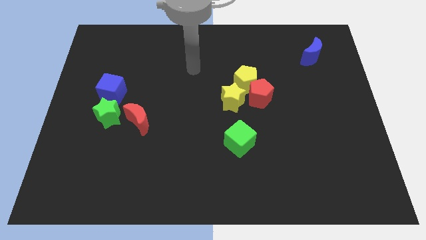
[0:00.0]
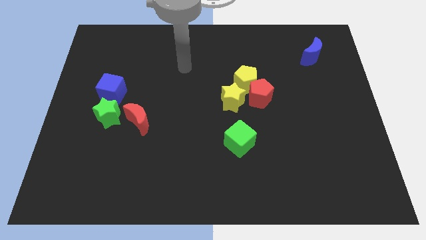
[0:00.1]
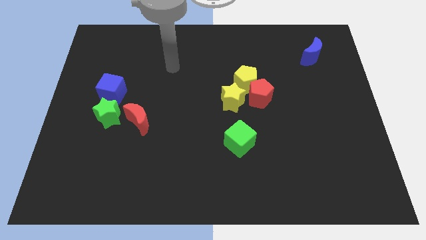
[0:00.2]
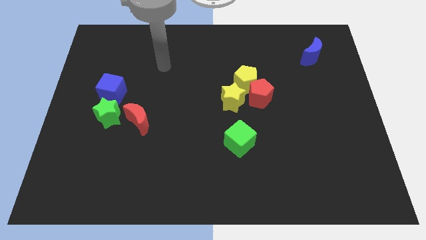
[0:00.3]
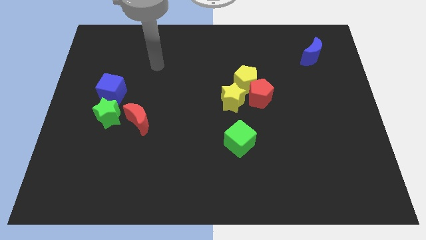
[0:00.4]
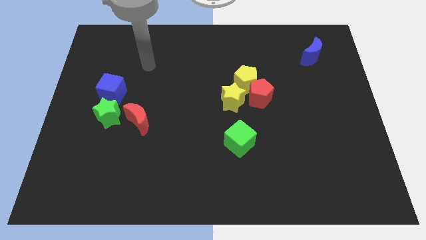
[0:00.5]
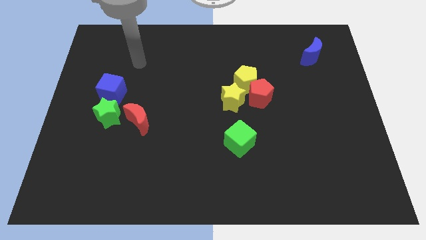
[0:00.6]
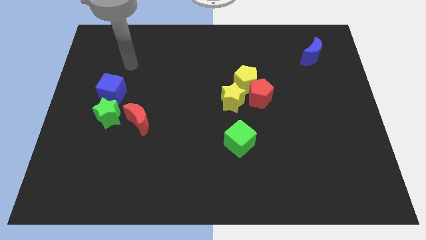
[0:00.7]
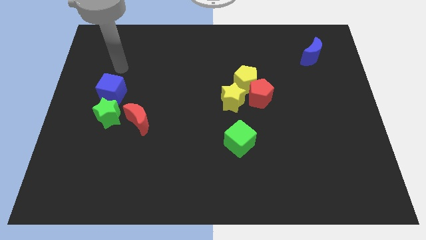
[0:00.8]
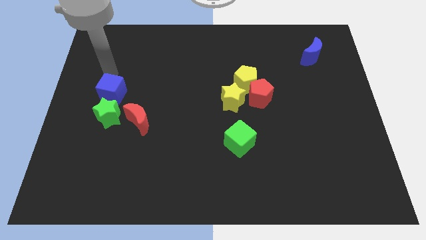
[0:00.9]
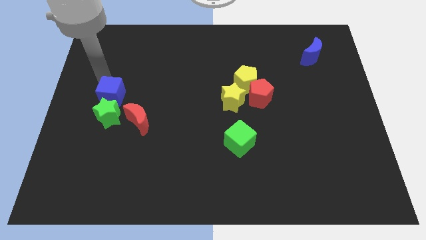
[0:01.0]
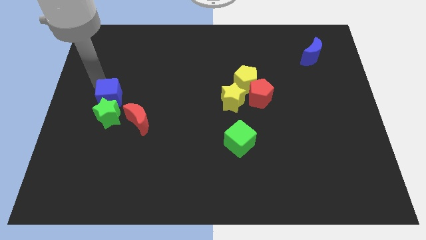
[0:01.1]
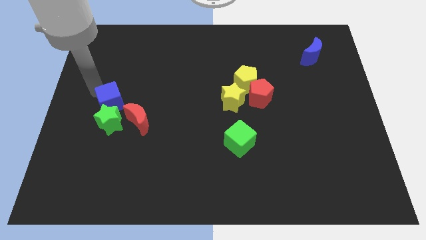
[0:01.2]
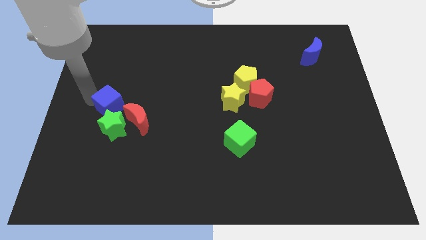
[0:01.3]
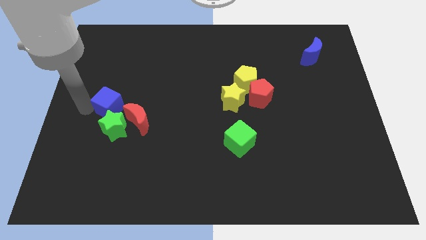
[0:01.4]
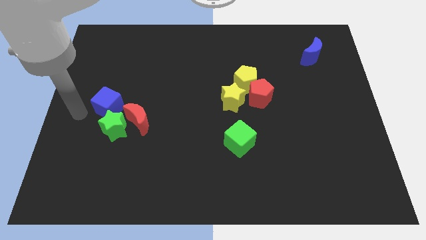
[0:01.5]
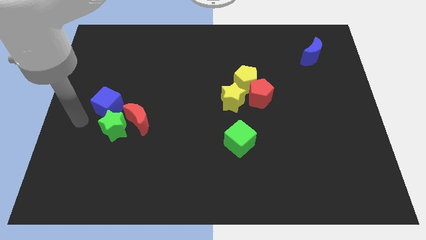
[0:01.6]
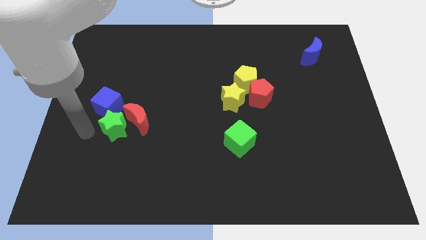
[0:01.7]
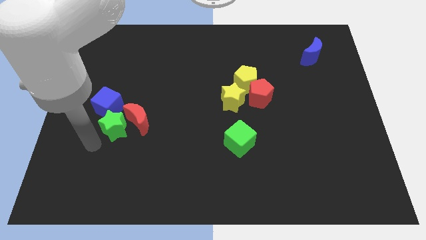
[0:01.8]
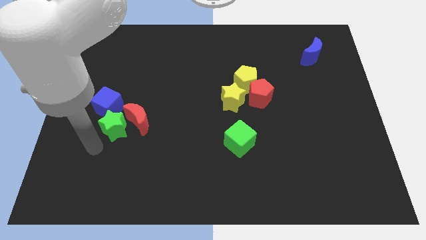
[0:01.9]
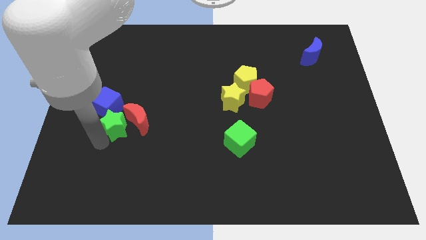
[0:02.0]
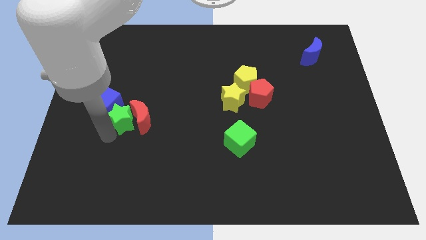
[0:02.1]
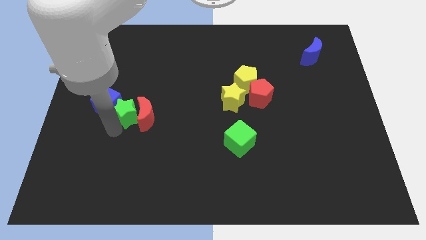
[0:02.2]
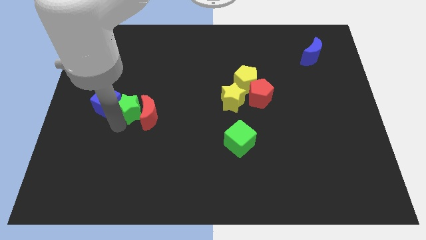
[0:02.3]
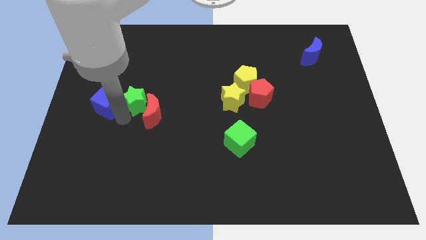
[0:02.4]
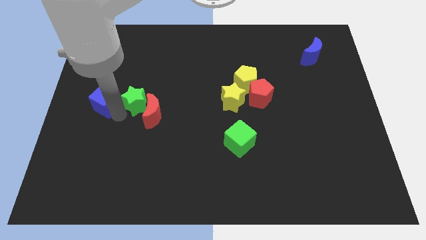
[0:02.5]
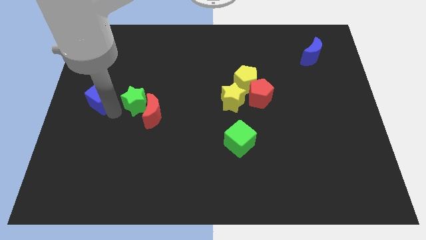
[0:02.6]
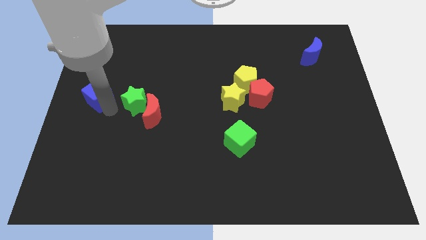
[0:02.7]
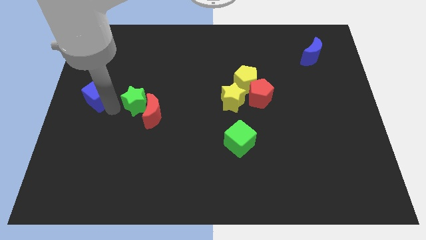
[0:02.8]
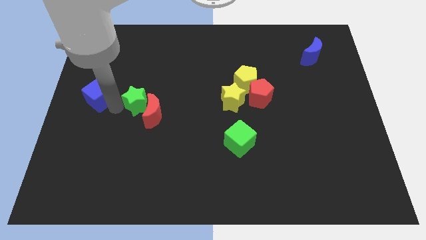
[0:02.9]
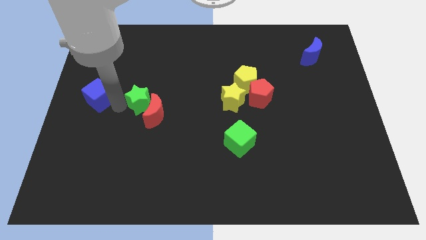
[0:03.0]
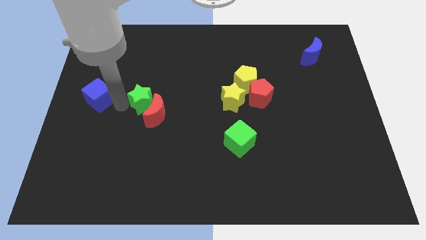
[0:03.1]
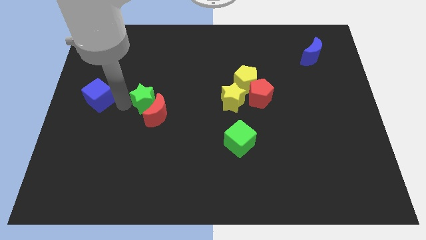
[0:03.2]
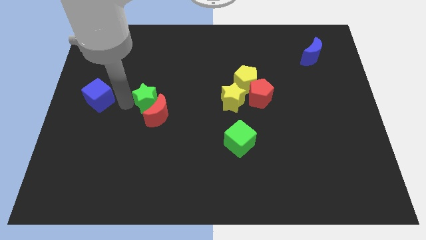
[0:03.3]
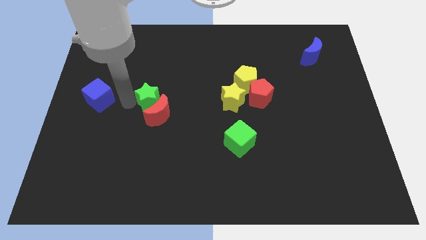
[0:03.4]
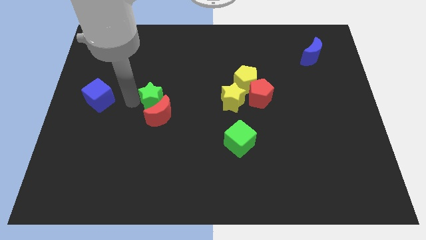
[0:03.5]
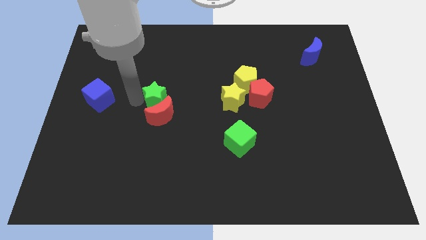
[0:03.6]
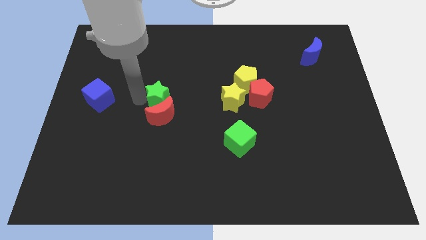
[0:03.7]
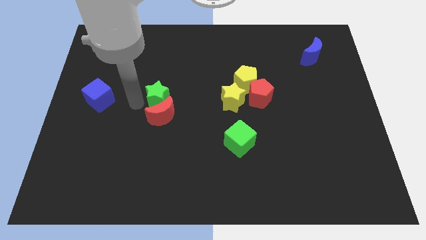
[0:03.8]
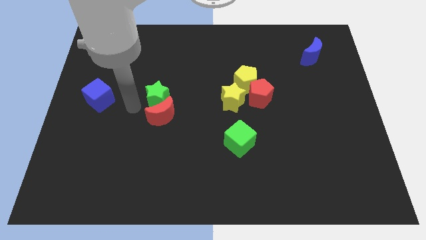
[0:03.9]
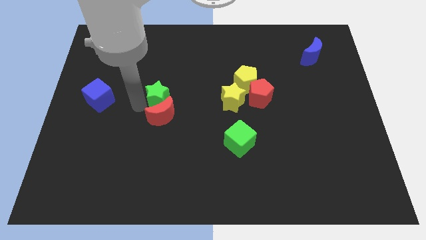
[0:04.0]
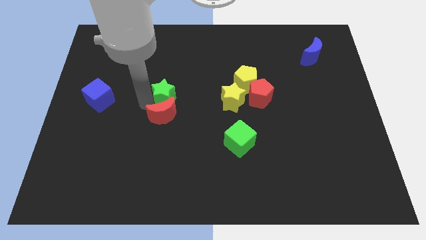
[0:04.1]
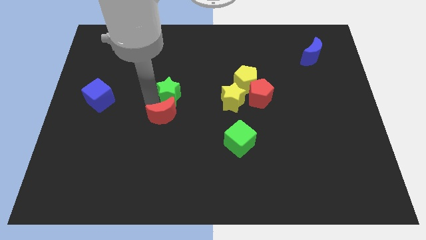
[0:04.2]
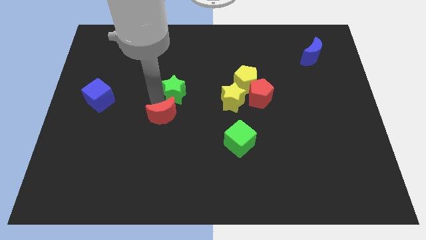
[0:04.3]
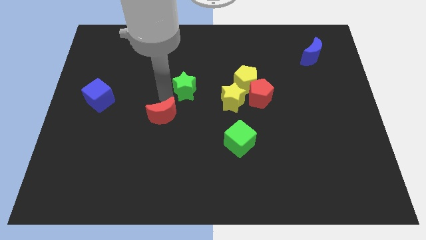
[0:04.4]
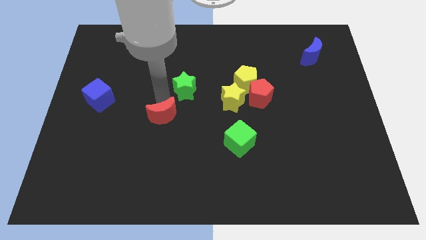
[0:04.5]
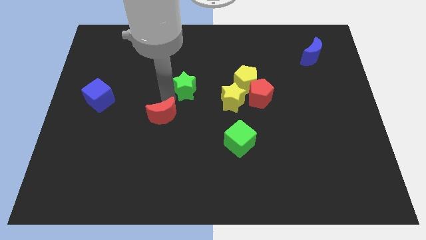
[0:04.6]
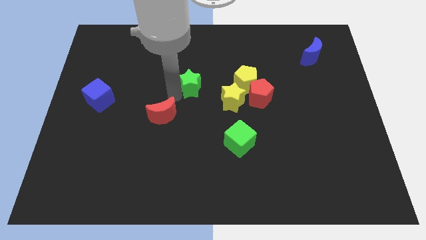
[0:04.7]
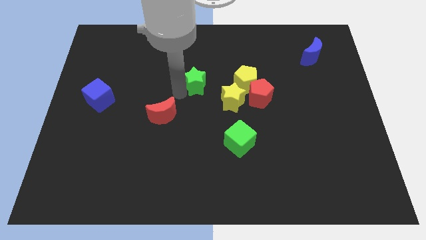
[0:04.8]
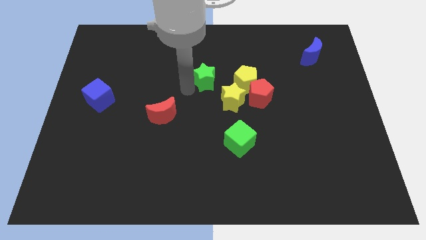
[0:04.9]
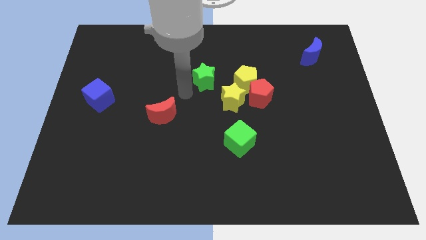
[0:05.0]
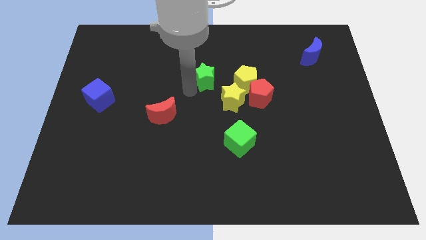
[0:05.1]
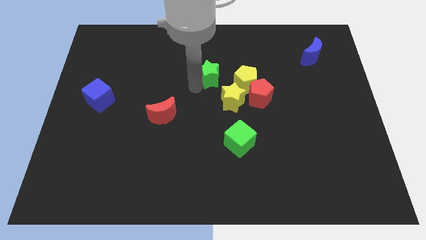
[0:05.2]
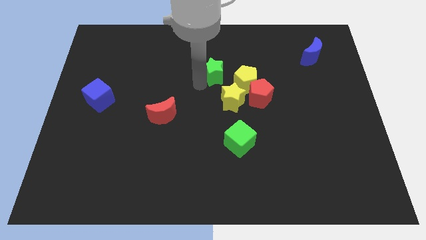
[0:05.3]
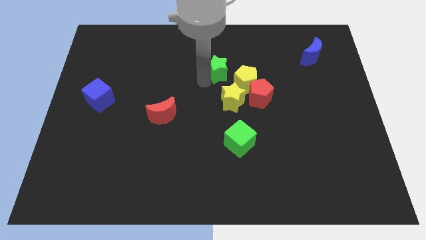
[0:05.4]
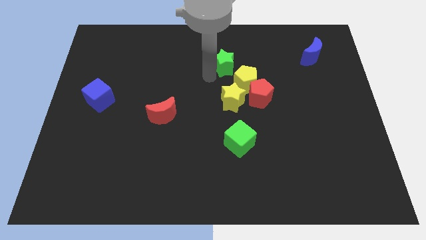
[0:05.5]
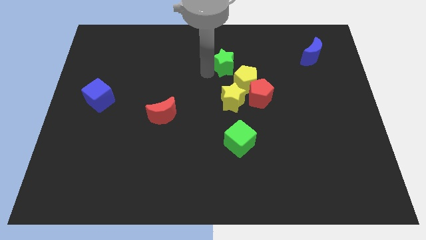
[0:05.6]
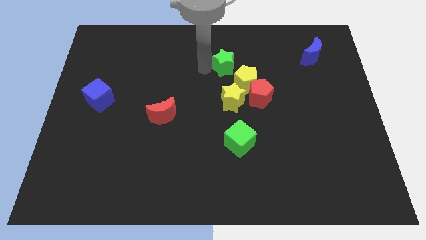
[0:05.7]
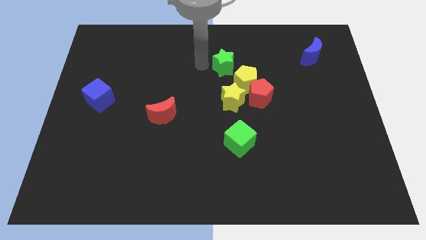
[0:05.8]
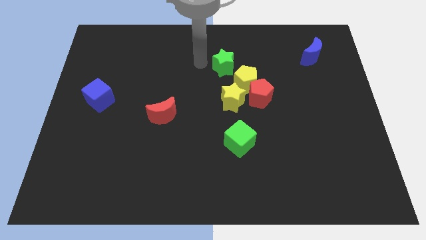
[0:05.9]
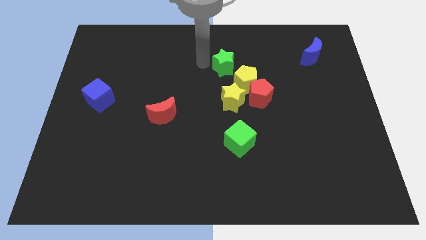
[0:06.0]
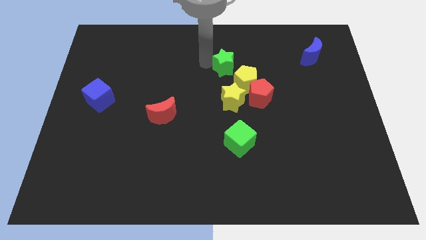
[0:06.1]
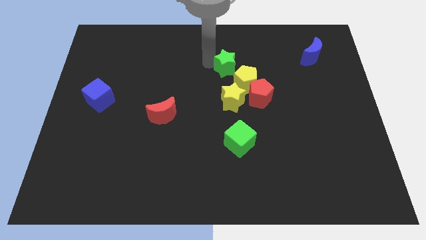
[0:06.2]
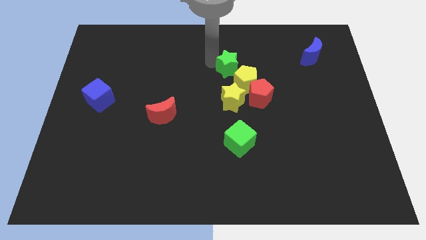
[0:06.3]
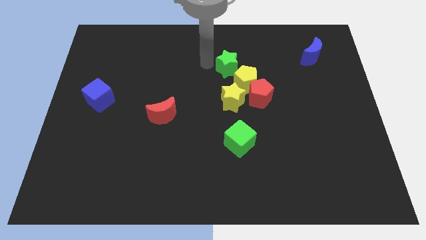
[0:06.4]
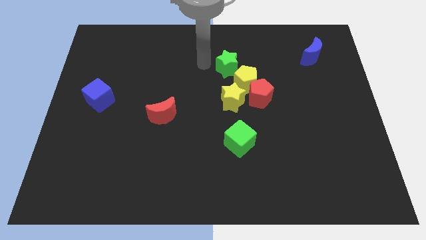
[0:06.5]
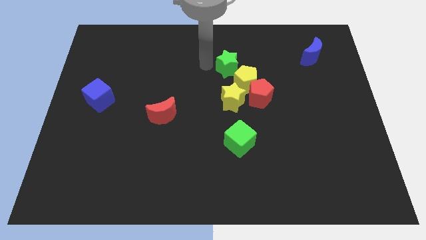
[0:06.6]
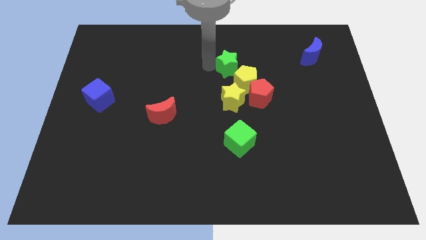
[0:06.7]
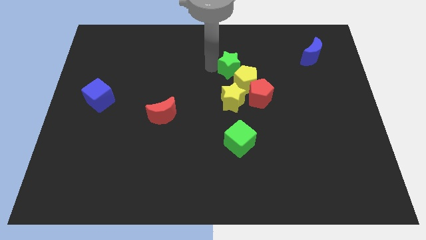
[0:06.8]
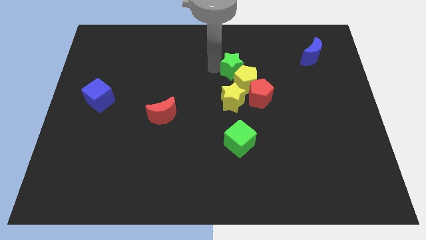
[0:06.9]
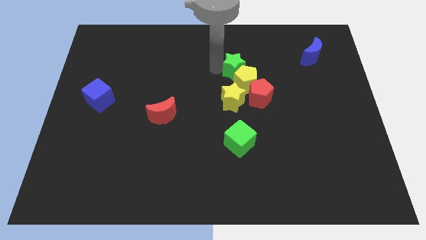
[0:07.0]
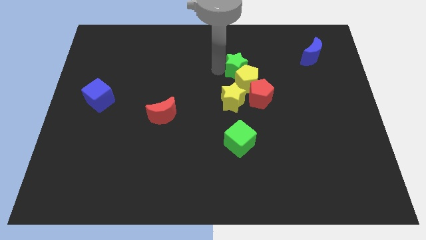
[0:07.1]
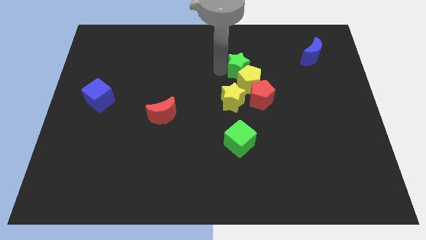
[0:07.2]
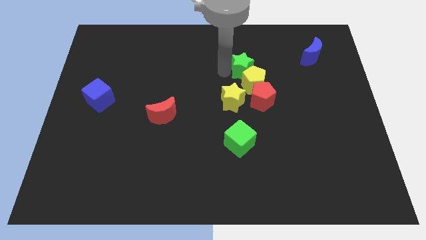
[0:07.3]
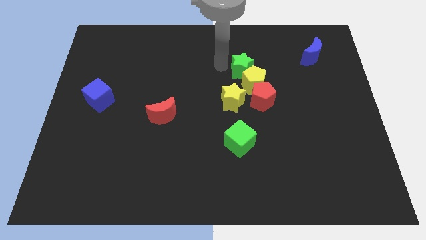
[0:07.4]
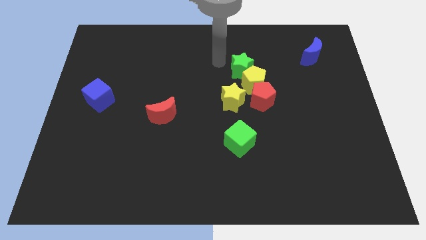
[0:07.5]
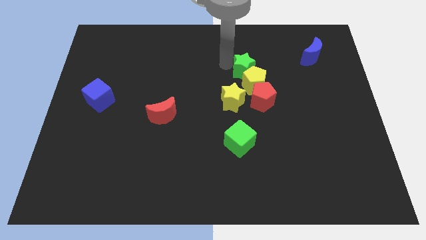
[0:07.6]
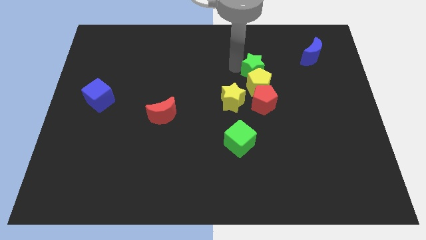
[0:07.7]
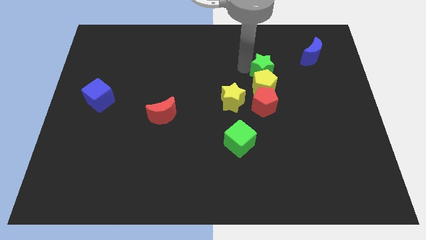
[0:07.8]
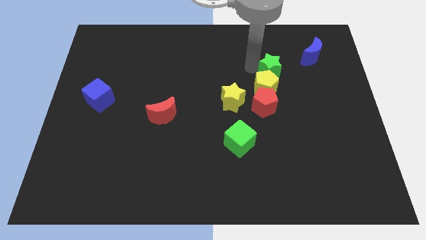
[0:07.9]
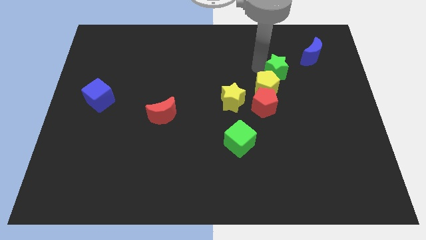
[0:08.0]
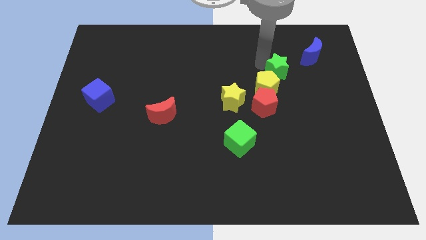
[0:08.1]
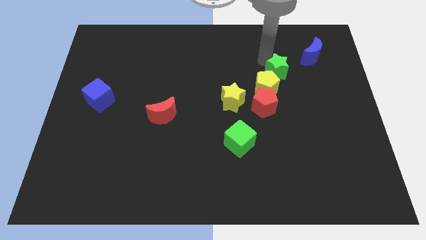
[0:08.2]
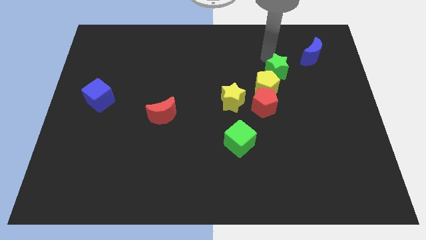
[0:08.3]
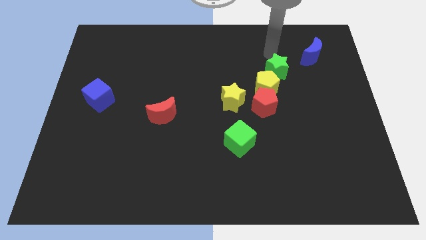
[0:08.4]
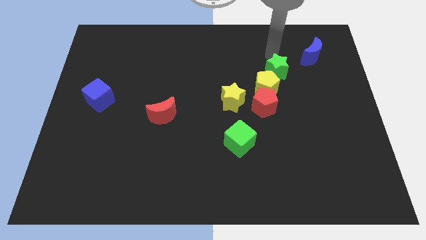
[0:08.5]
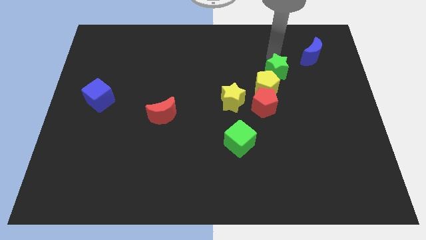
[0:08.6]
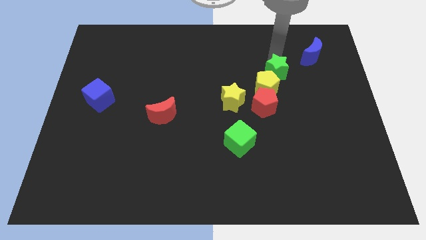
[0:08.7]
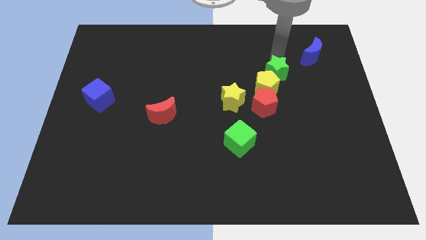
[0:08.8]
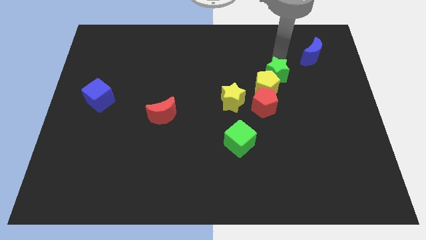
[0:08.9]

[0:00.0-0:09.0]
put the green star to the top right of the red pentagon
